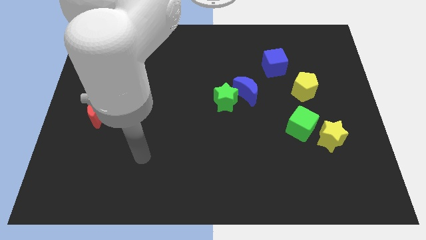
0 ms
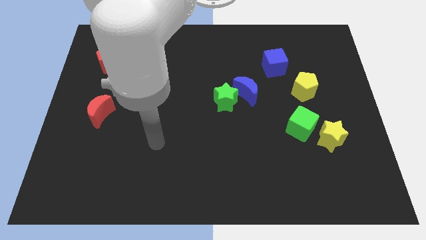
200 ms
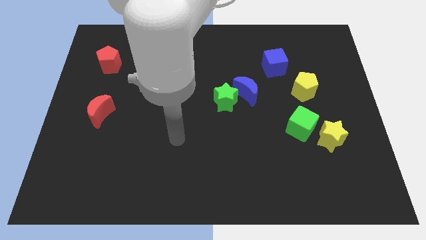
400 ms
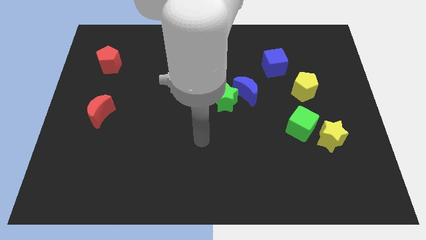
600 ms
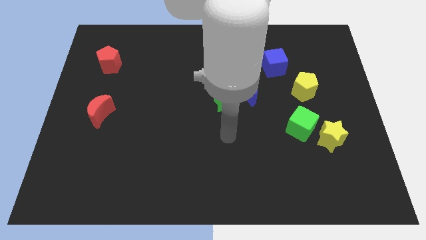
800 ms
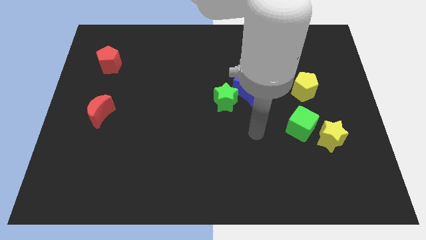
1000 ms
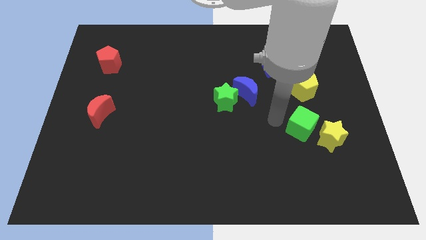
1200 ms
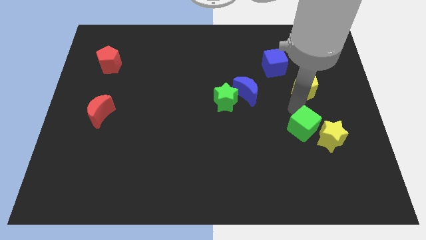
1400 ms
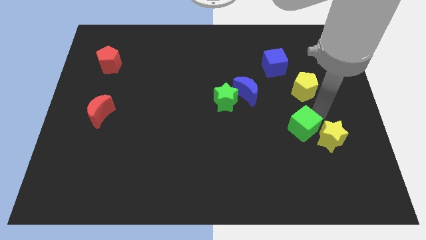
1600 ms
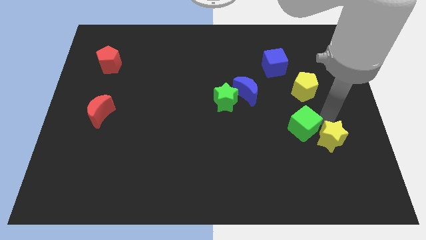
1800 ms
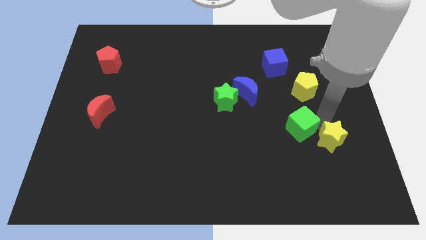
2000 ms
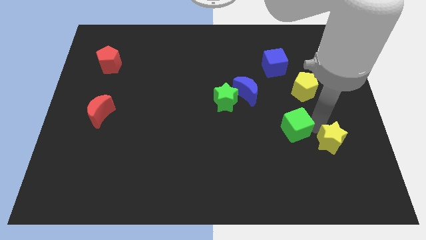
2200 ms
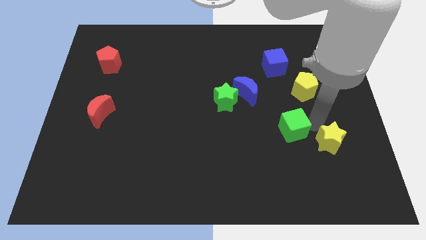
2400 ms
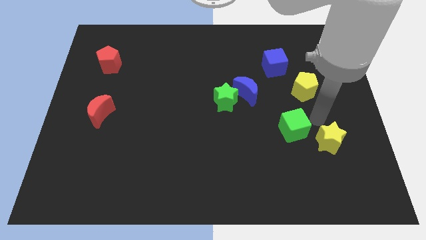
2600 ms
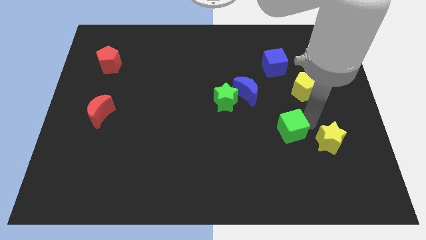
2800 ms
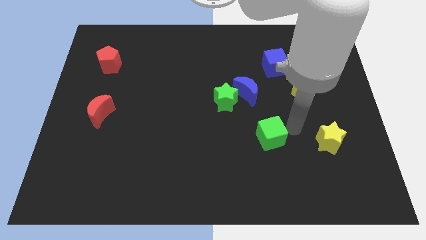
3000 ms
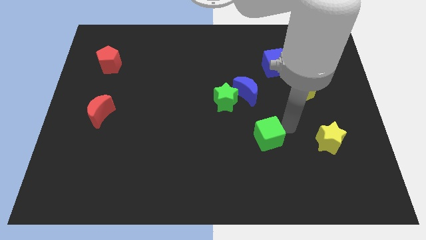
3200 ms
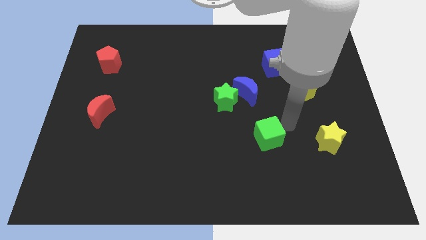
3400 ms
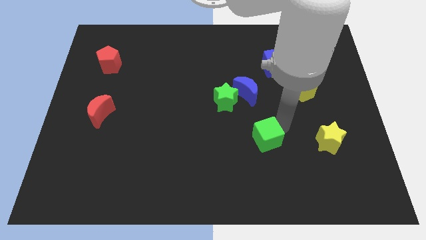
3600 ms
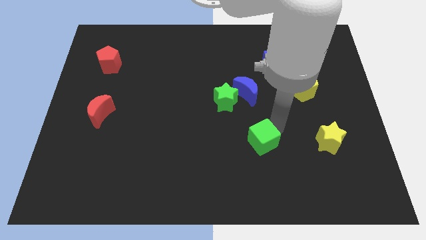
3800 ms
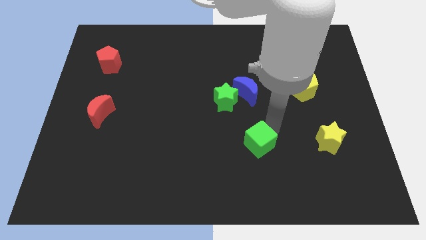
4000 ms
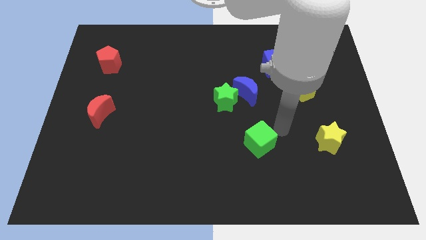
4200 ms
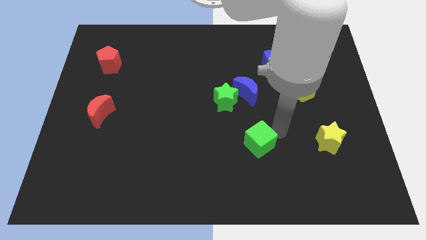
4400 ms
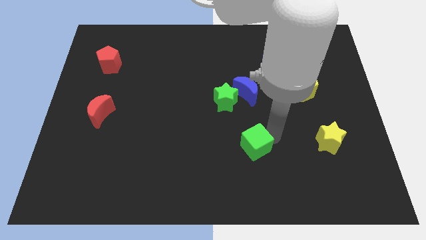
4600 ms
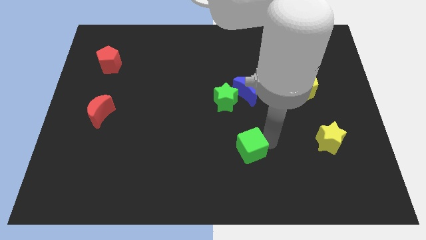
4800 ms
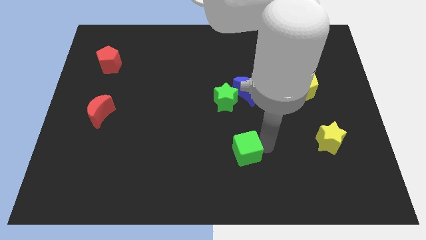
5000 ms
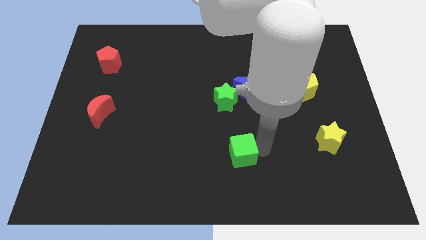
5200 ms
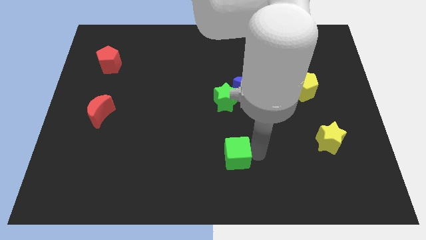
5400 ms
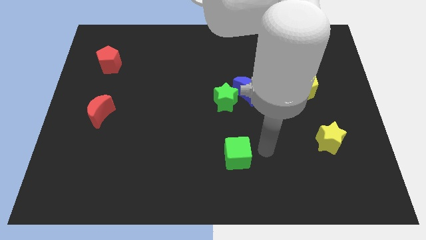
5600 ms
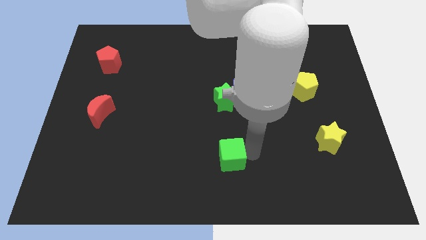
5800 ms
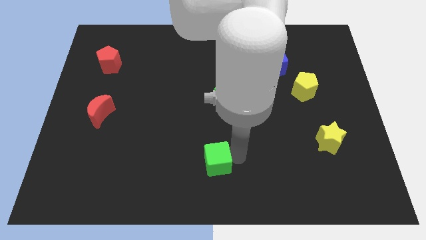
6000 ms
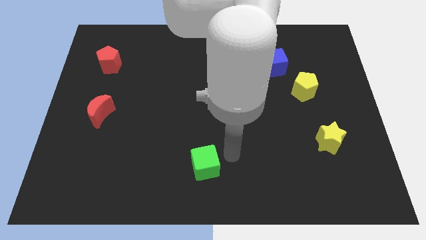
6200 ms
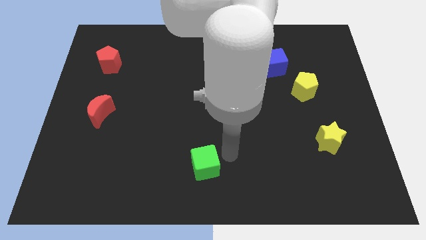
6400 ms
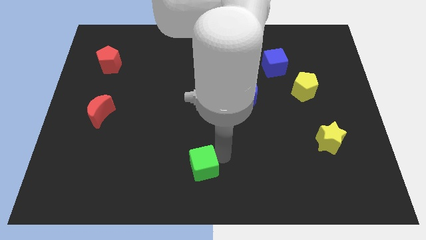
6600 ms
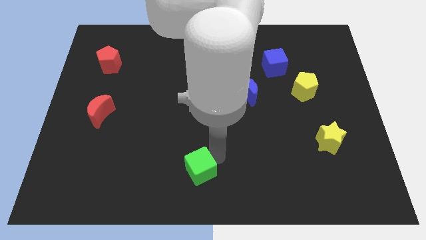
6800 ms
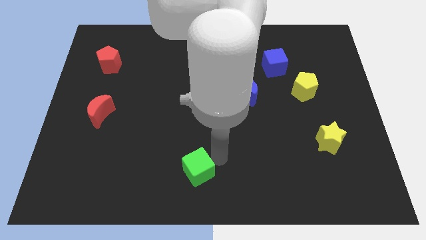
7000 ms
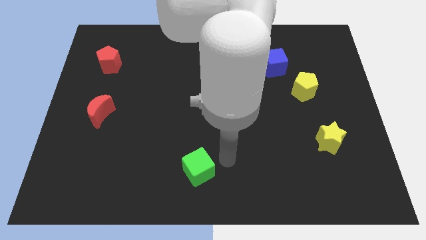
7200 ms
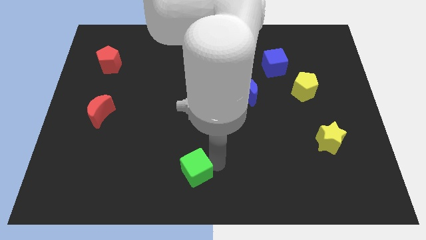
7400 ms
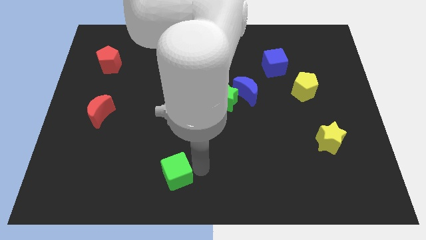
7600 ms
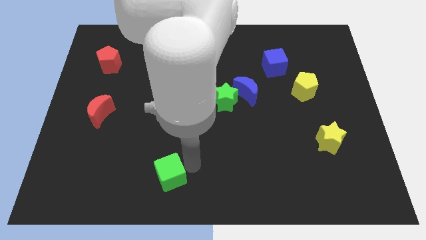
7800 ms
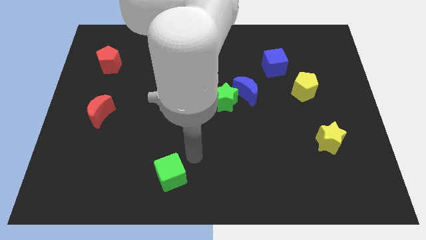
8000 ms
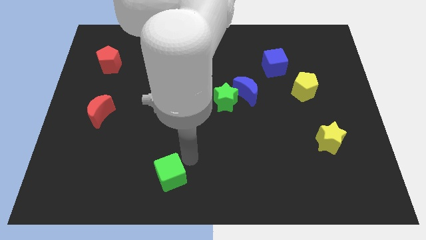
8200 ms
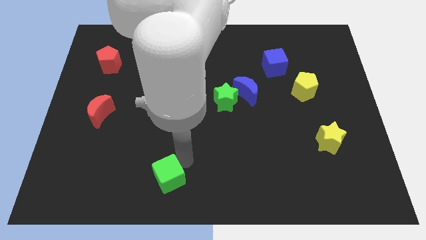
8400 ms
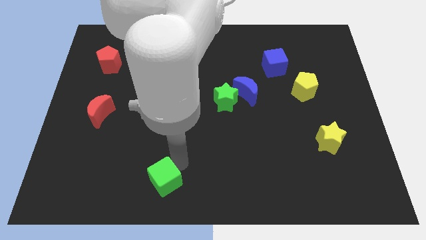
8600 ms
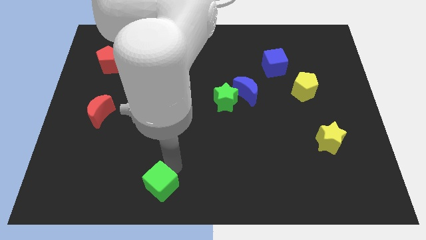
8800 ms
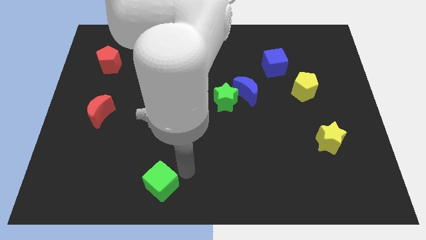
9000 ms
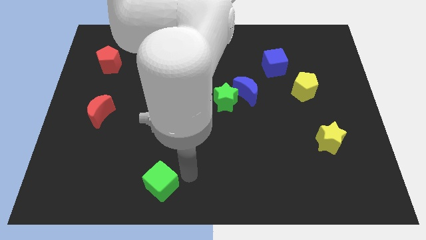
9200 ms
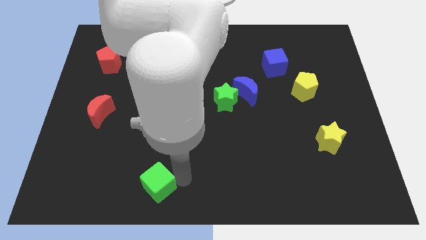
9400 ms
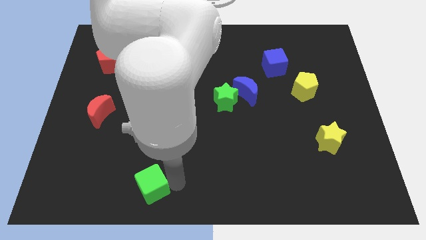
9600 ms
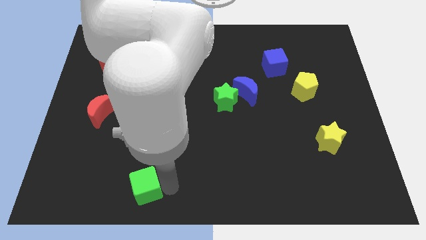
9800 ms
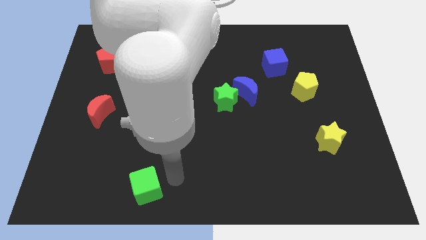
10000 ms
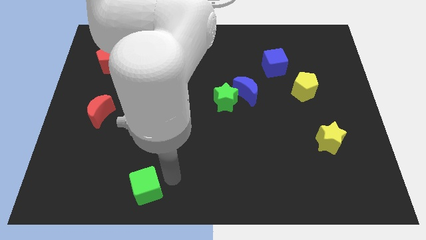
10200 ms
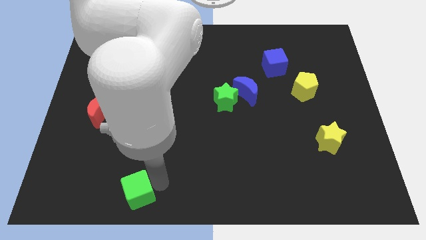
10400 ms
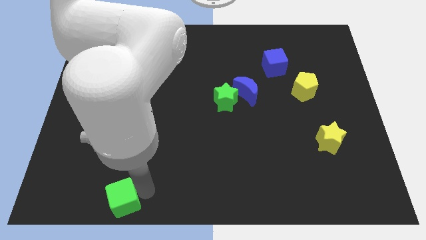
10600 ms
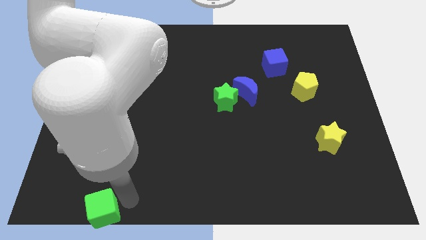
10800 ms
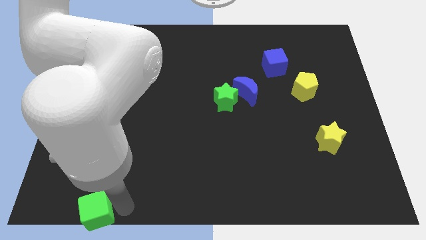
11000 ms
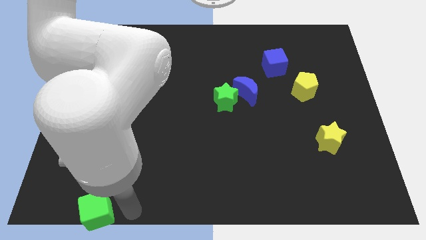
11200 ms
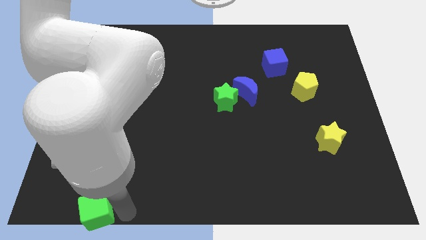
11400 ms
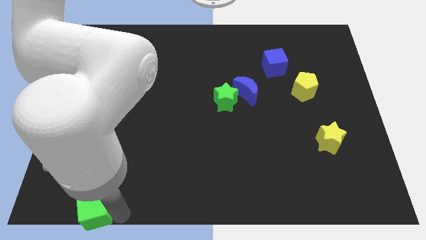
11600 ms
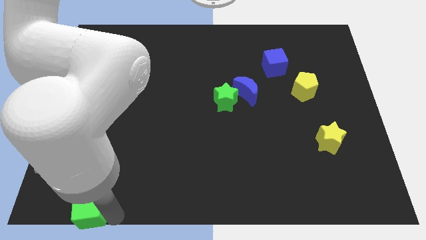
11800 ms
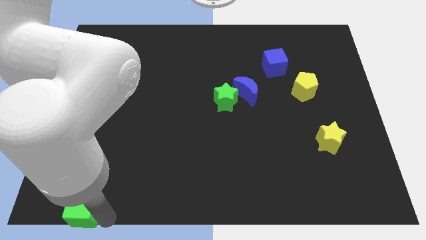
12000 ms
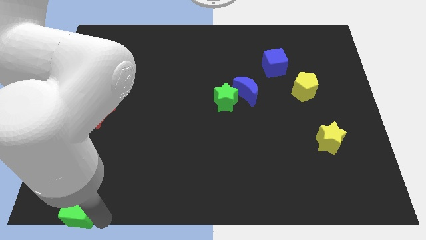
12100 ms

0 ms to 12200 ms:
put the green cube to the bottom left
